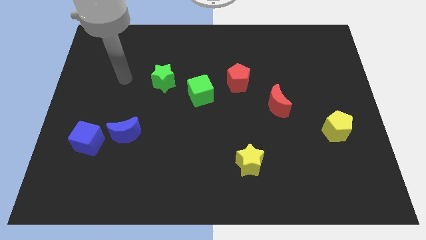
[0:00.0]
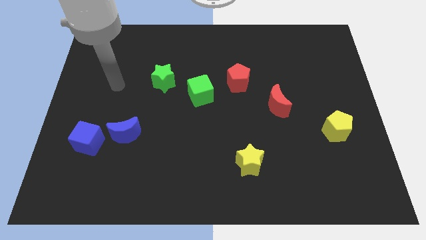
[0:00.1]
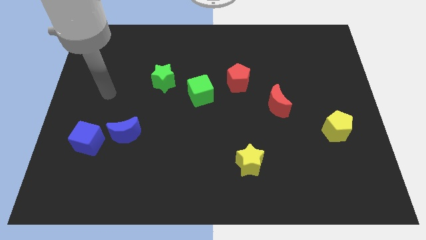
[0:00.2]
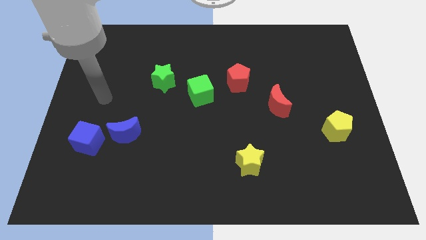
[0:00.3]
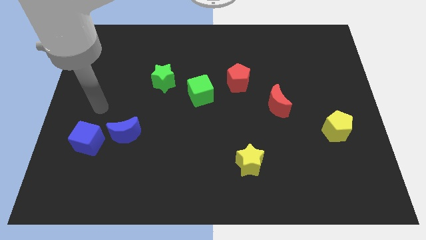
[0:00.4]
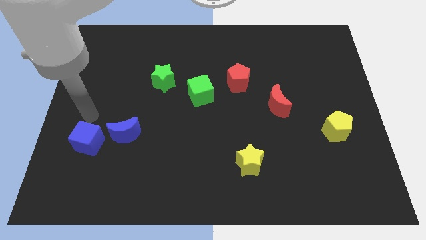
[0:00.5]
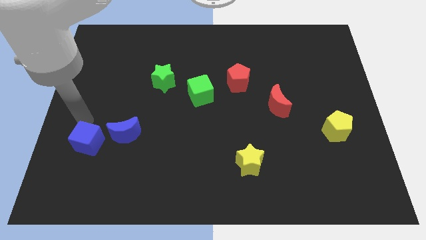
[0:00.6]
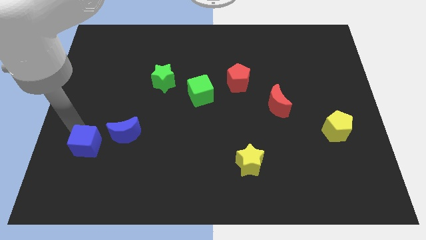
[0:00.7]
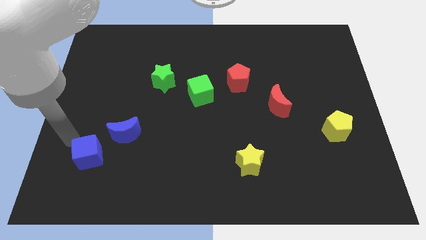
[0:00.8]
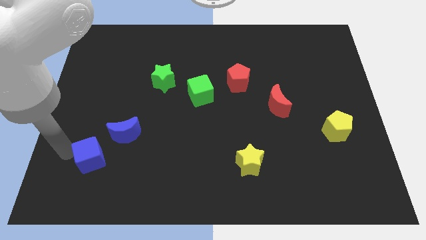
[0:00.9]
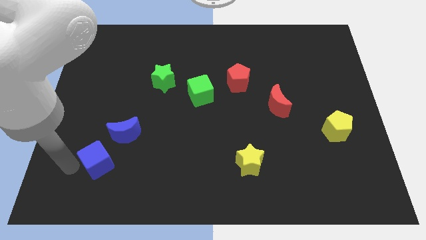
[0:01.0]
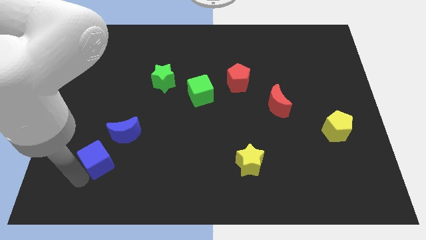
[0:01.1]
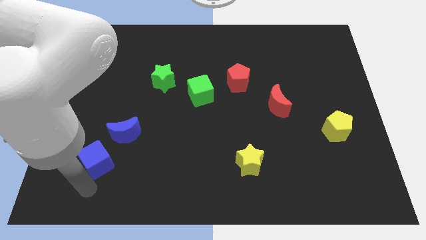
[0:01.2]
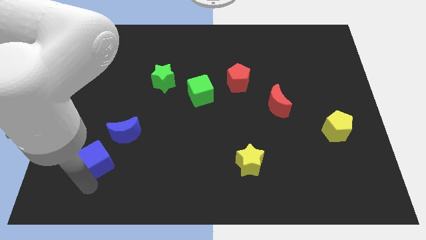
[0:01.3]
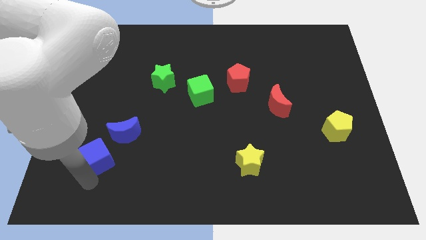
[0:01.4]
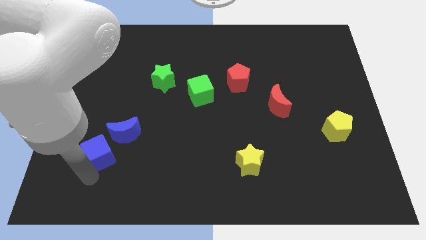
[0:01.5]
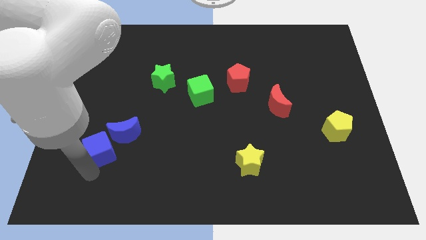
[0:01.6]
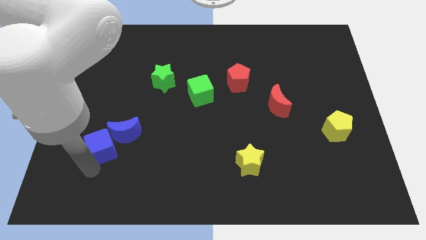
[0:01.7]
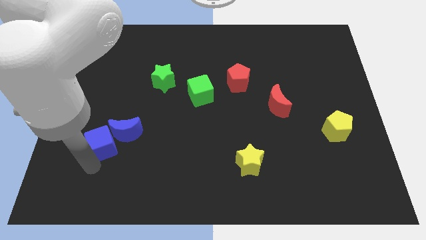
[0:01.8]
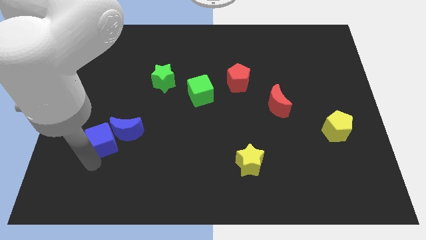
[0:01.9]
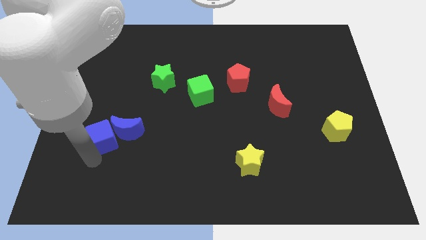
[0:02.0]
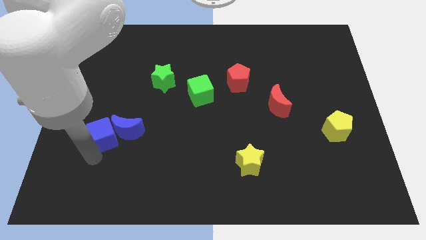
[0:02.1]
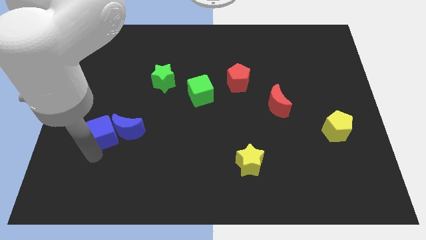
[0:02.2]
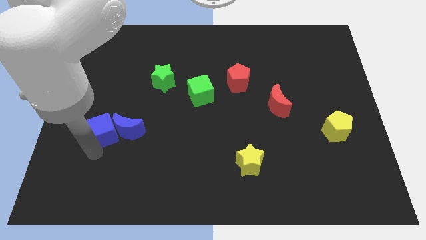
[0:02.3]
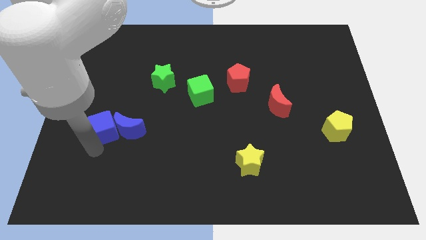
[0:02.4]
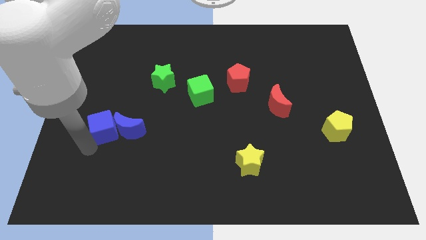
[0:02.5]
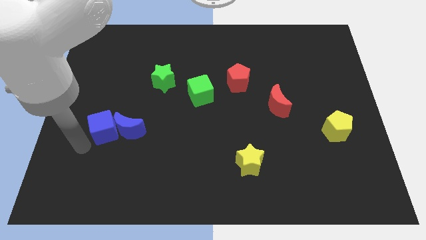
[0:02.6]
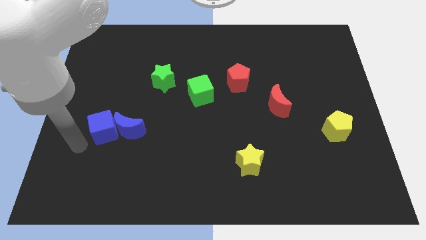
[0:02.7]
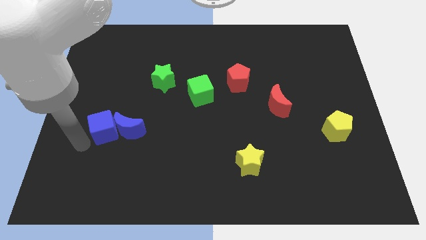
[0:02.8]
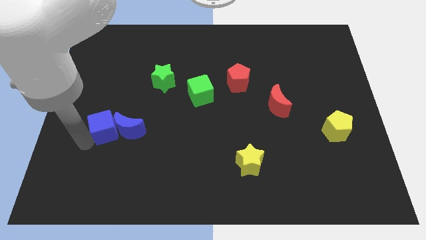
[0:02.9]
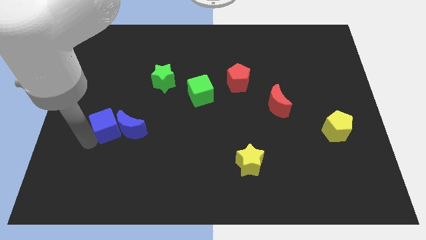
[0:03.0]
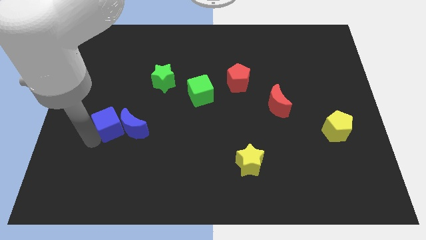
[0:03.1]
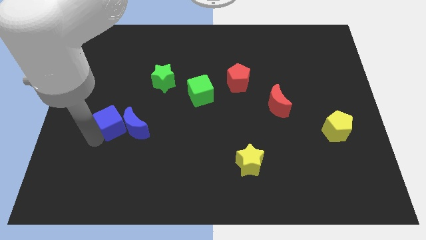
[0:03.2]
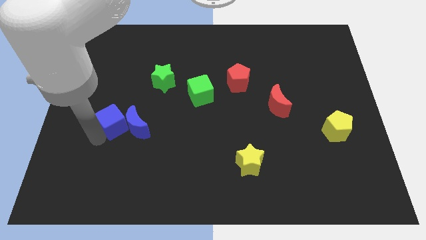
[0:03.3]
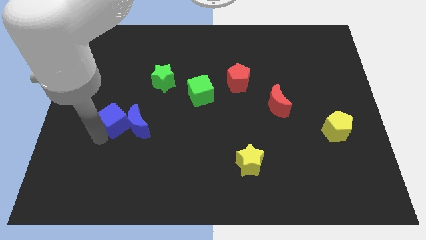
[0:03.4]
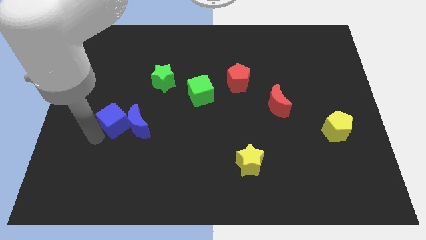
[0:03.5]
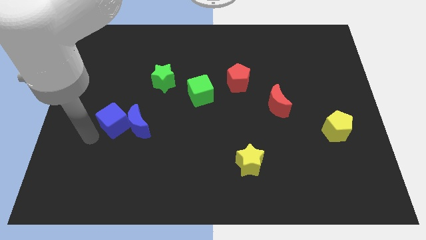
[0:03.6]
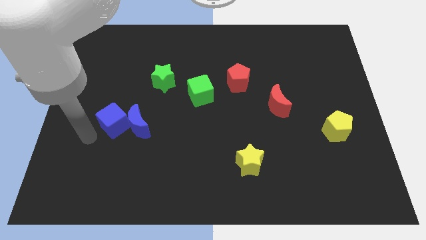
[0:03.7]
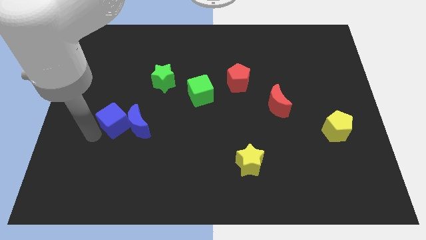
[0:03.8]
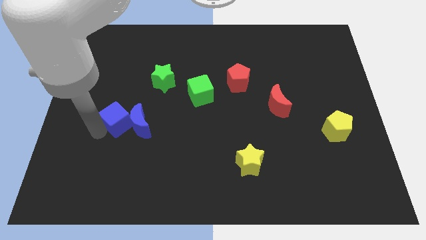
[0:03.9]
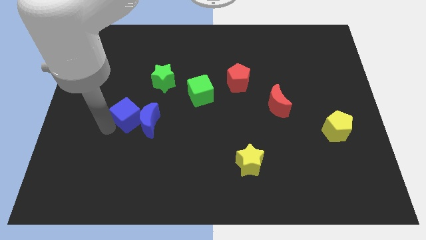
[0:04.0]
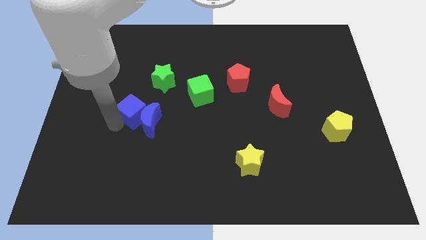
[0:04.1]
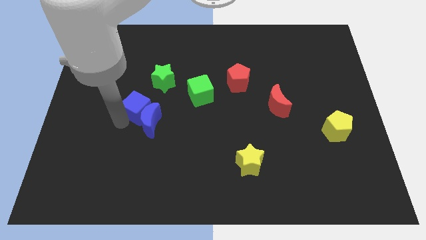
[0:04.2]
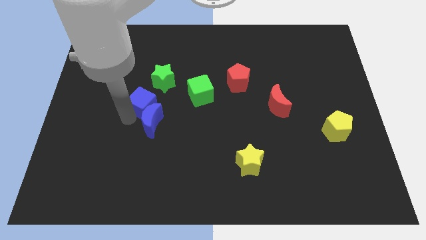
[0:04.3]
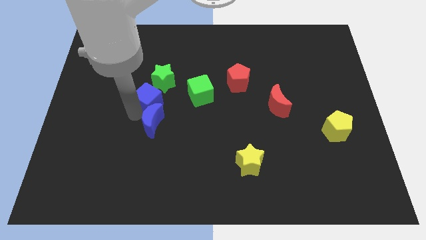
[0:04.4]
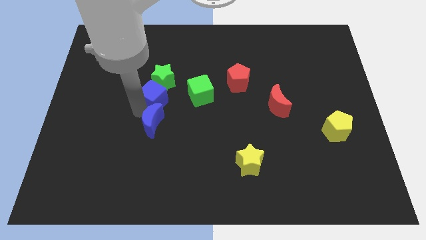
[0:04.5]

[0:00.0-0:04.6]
put the blue cube next to the green star

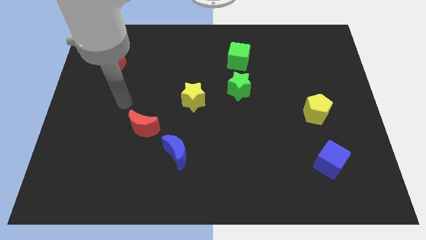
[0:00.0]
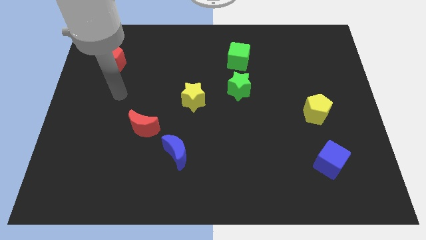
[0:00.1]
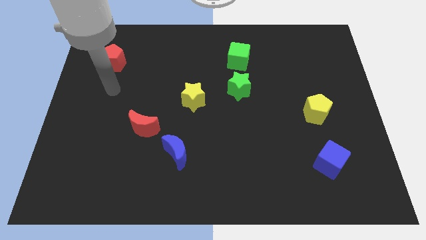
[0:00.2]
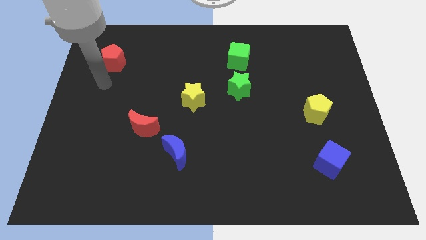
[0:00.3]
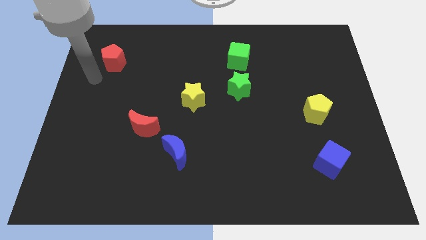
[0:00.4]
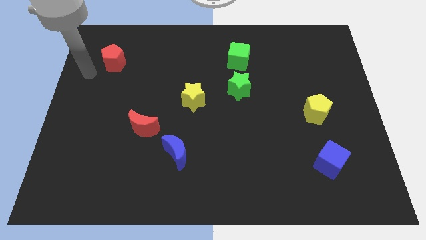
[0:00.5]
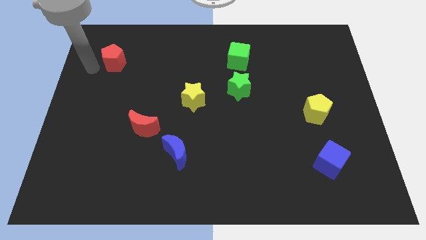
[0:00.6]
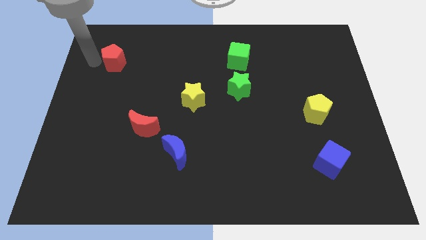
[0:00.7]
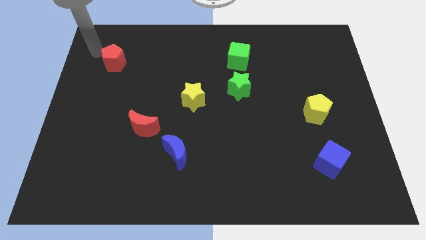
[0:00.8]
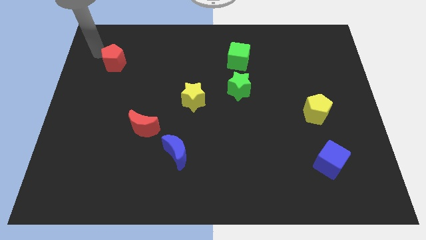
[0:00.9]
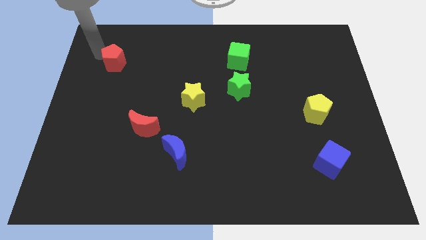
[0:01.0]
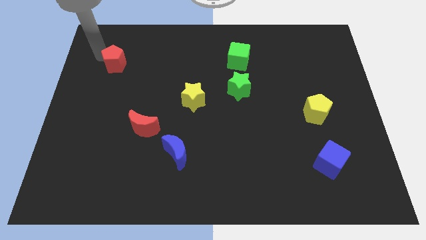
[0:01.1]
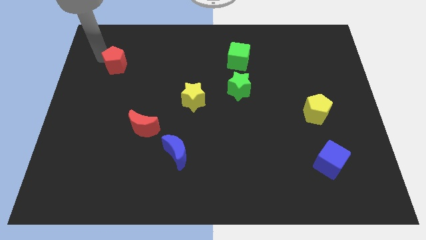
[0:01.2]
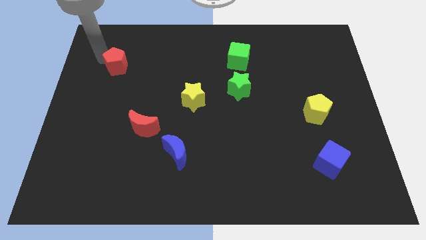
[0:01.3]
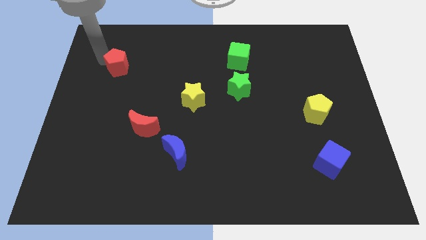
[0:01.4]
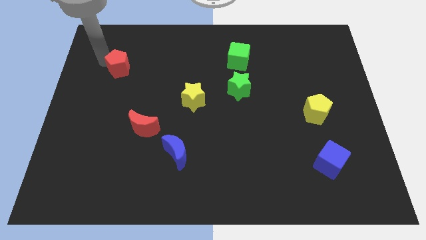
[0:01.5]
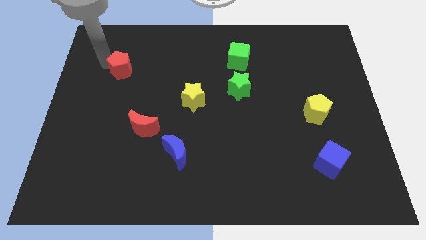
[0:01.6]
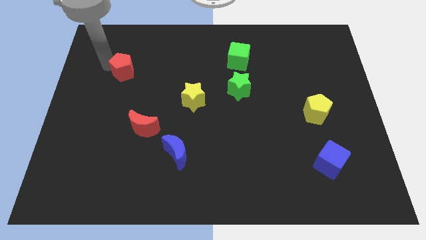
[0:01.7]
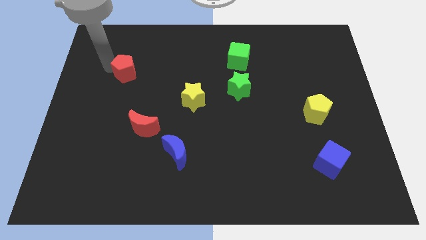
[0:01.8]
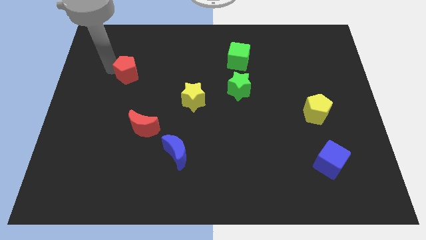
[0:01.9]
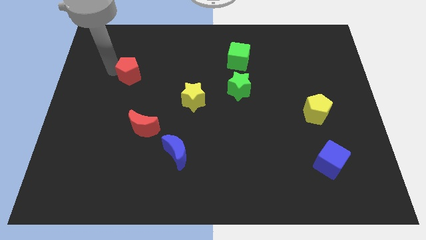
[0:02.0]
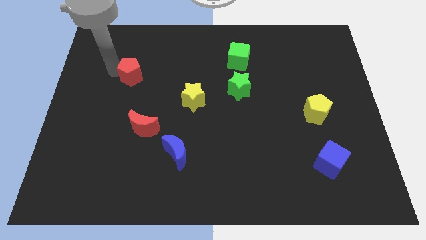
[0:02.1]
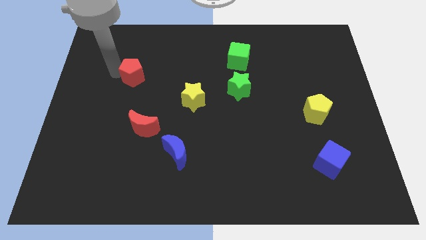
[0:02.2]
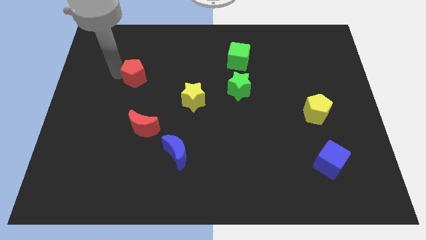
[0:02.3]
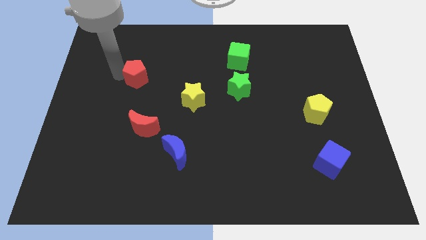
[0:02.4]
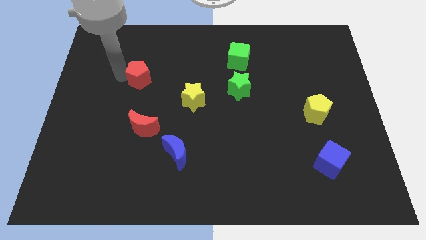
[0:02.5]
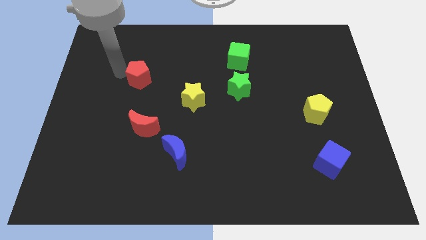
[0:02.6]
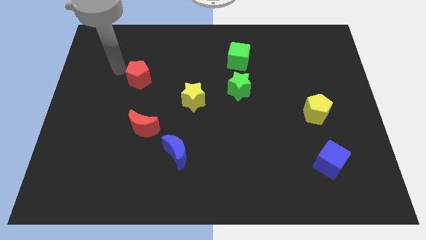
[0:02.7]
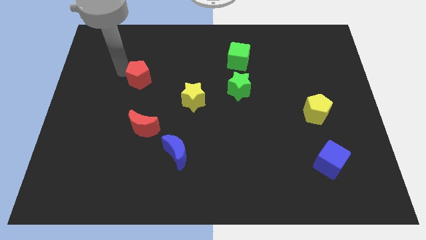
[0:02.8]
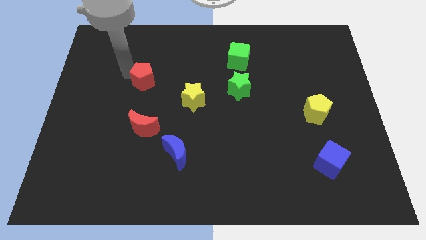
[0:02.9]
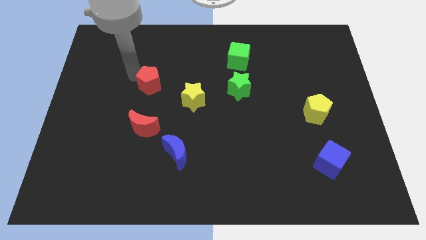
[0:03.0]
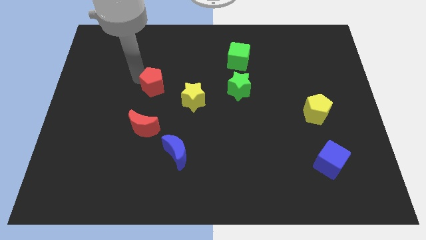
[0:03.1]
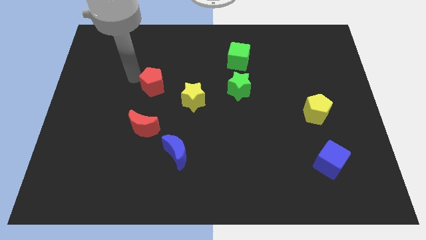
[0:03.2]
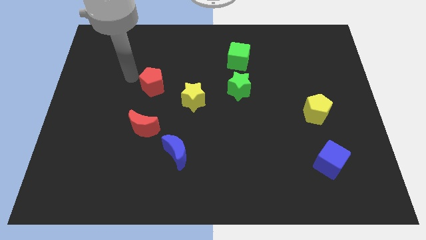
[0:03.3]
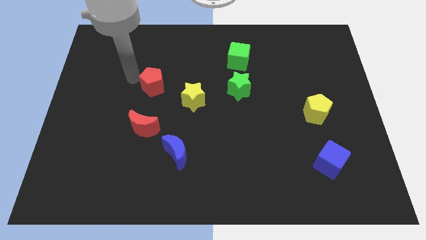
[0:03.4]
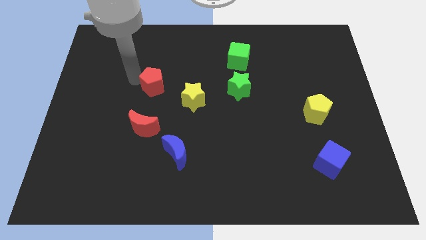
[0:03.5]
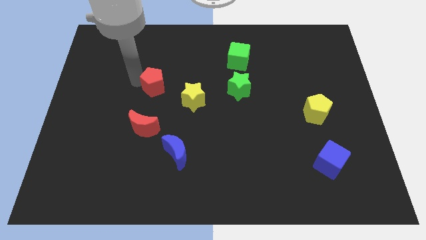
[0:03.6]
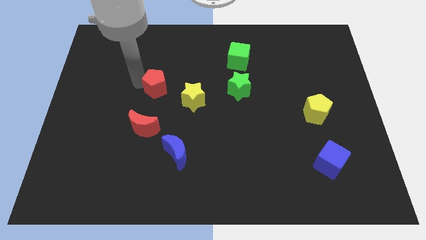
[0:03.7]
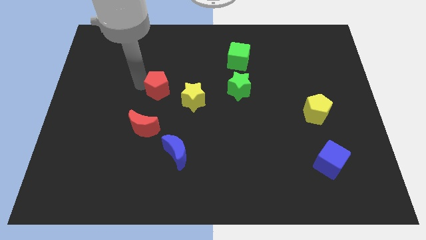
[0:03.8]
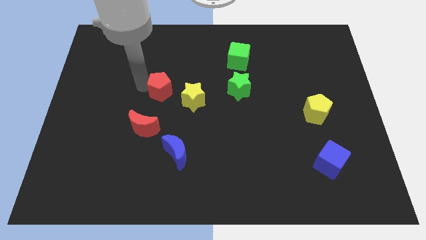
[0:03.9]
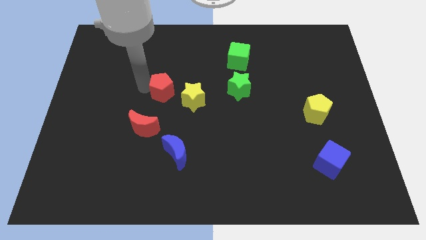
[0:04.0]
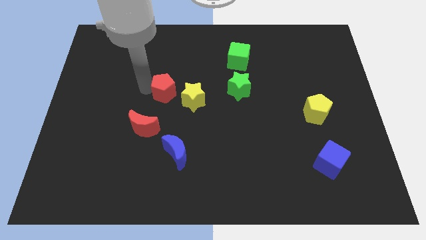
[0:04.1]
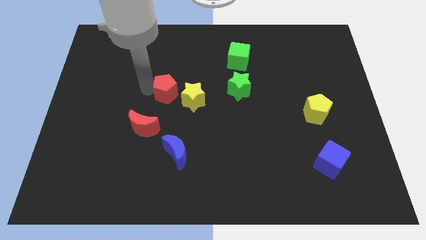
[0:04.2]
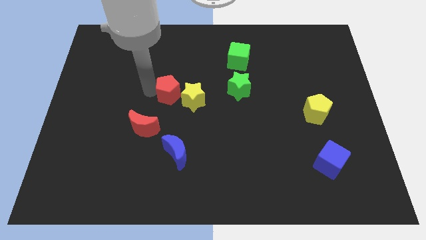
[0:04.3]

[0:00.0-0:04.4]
put the red pentagon next to the yellow star
